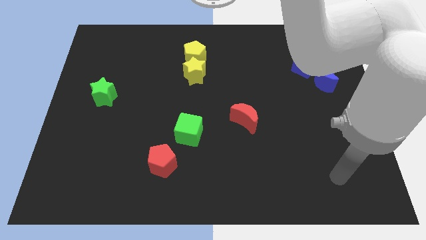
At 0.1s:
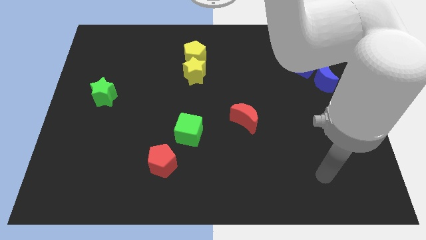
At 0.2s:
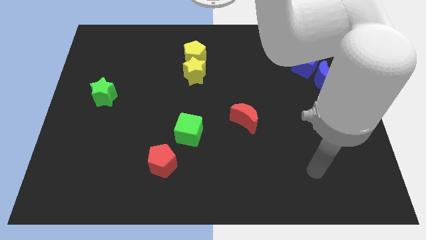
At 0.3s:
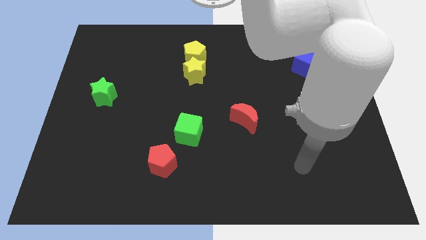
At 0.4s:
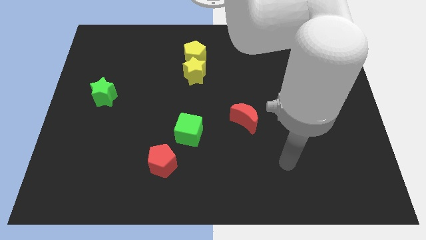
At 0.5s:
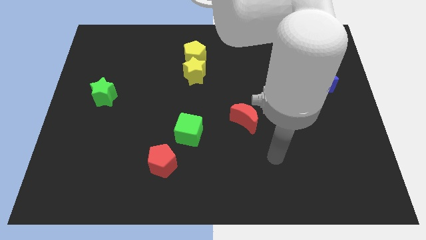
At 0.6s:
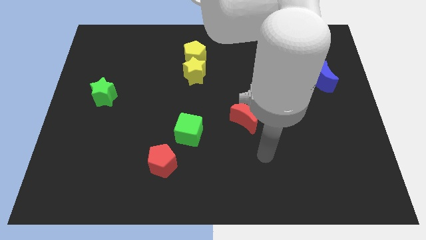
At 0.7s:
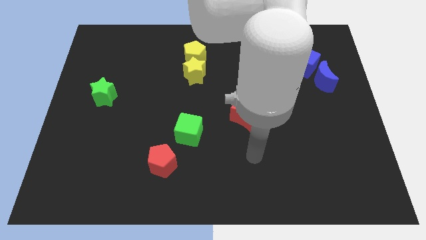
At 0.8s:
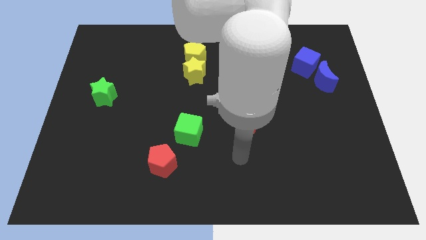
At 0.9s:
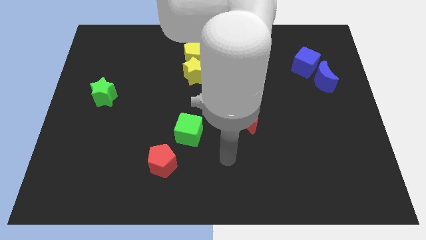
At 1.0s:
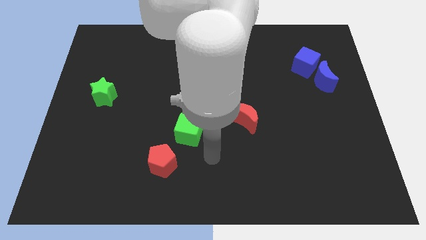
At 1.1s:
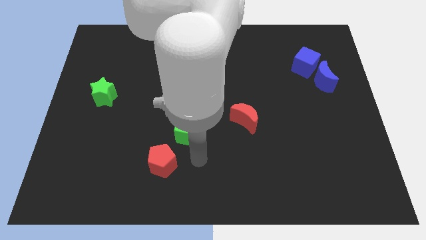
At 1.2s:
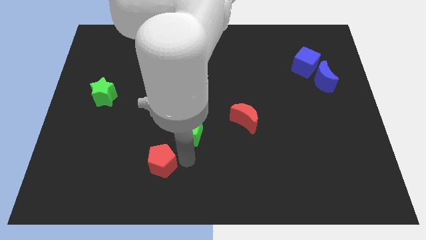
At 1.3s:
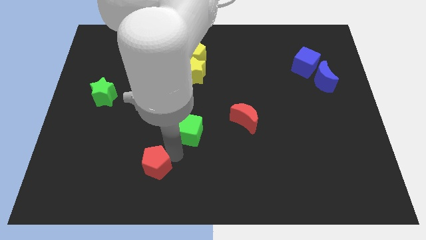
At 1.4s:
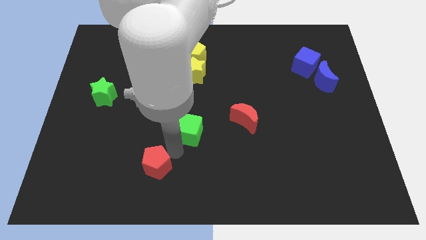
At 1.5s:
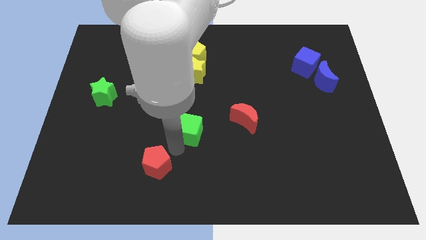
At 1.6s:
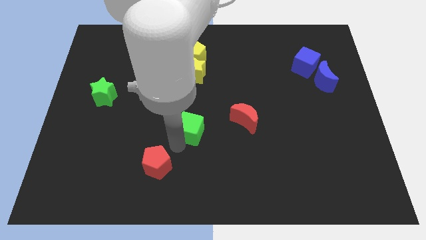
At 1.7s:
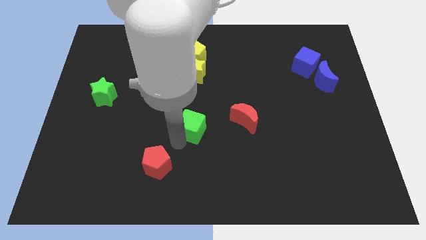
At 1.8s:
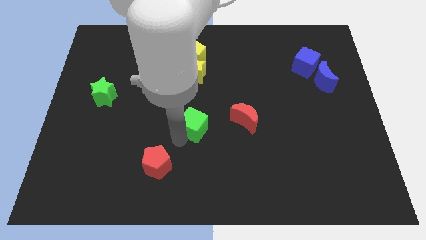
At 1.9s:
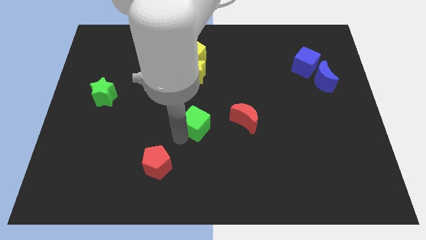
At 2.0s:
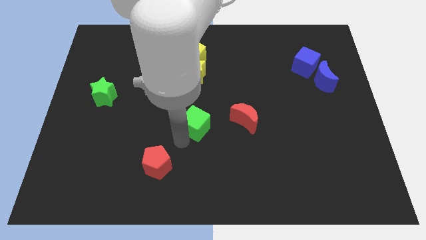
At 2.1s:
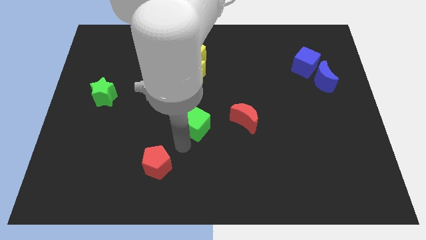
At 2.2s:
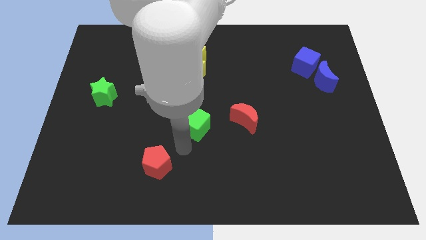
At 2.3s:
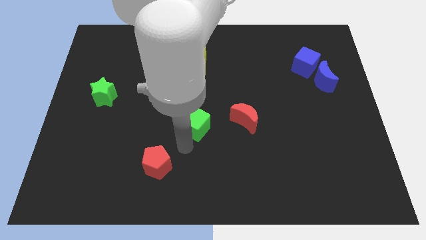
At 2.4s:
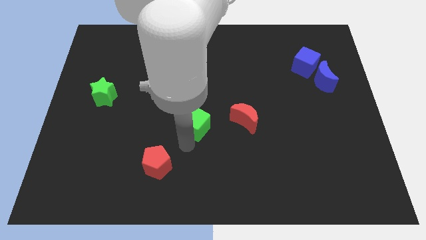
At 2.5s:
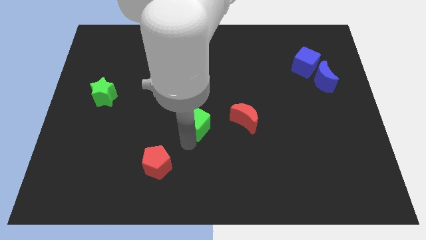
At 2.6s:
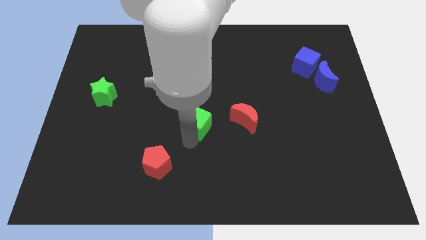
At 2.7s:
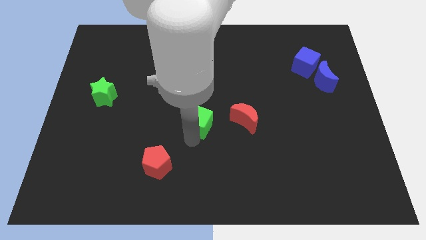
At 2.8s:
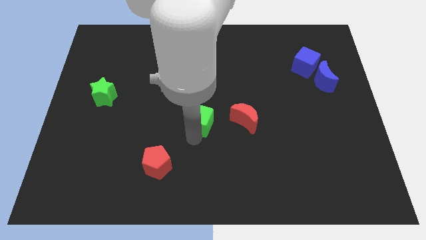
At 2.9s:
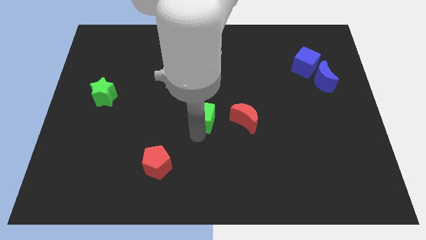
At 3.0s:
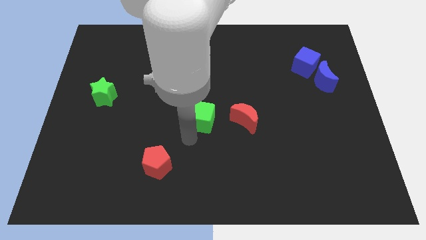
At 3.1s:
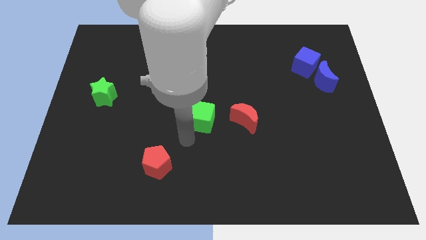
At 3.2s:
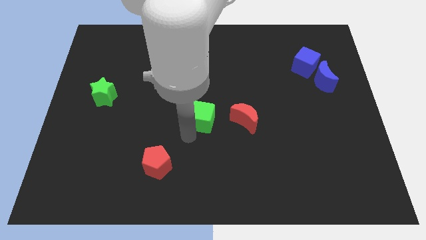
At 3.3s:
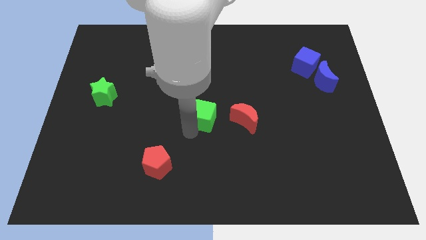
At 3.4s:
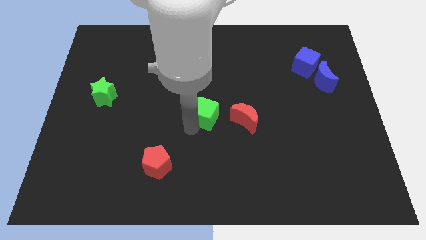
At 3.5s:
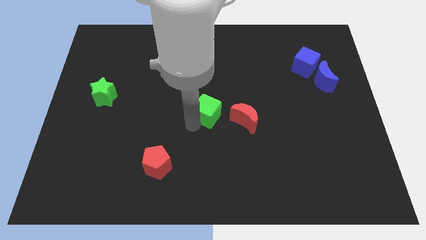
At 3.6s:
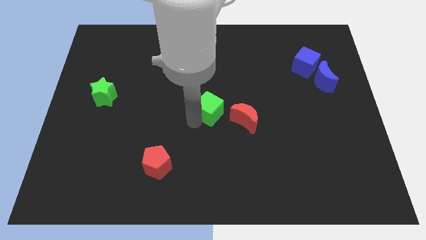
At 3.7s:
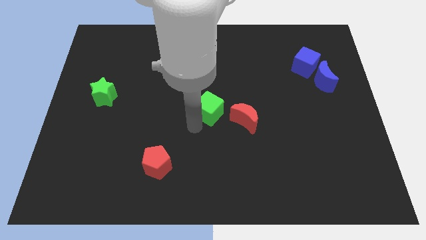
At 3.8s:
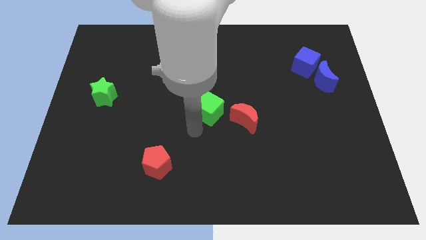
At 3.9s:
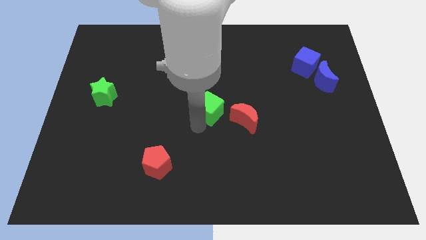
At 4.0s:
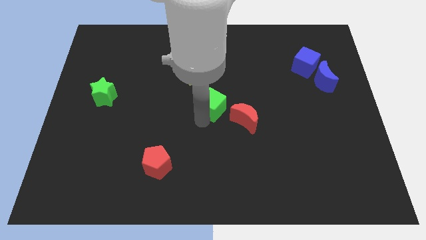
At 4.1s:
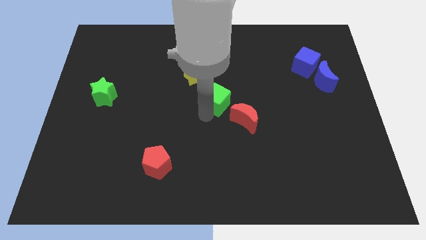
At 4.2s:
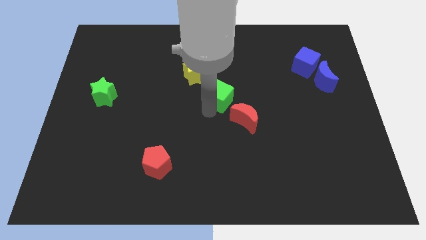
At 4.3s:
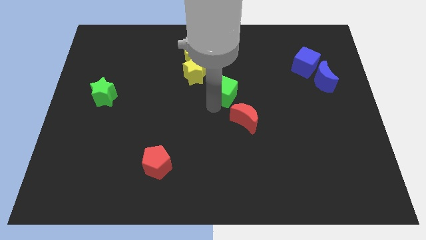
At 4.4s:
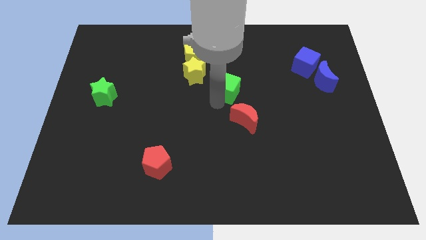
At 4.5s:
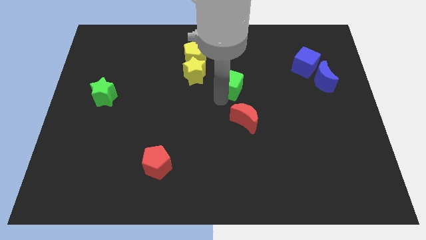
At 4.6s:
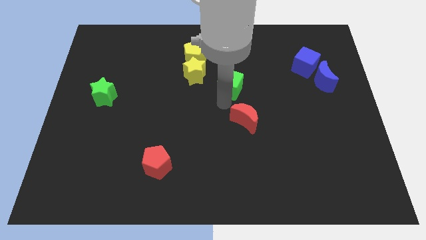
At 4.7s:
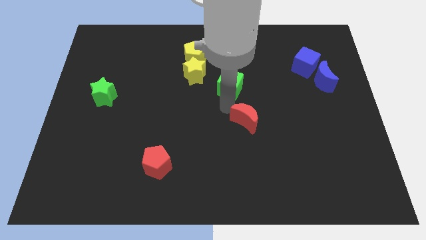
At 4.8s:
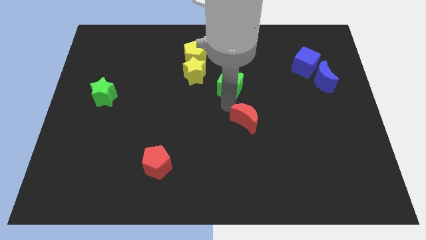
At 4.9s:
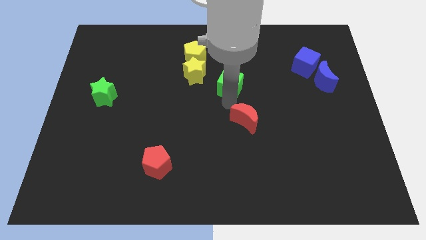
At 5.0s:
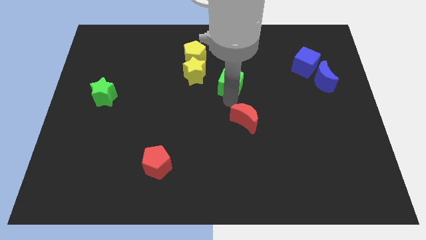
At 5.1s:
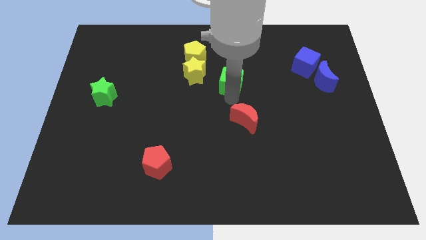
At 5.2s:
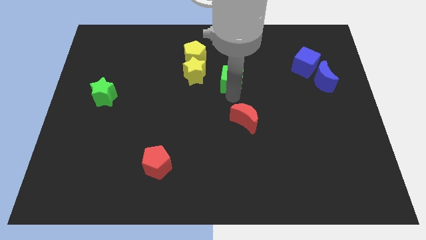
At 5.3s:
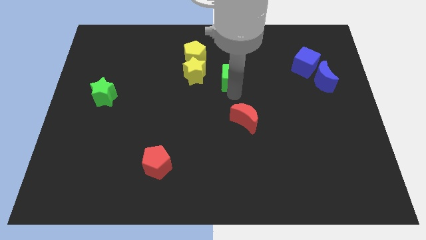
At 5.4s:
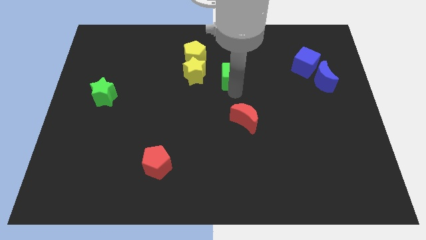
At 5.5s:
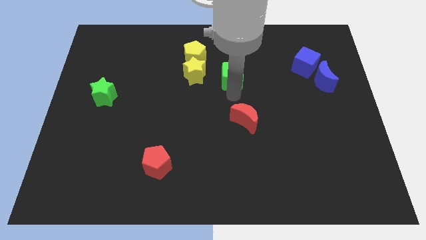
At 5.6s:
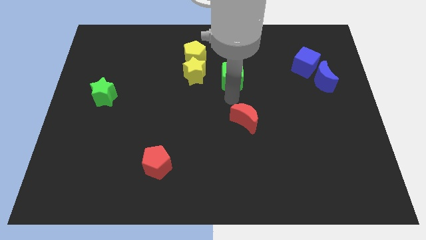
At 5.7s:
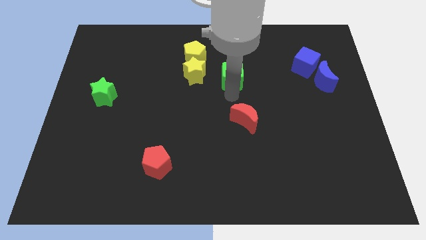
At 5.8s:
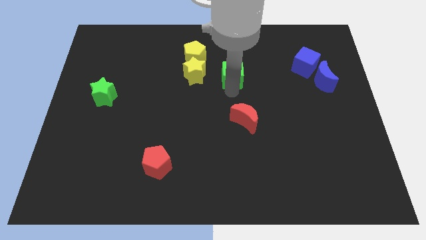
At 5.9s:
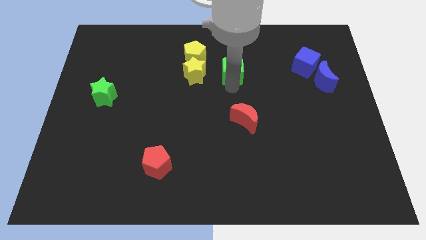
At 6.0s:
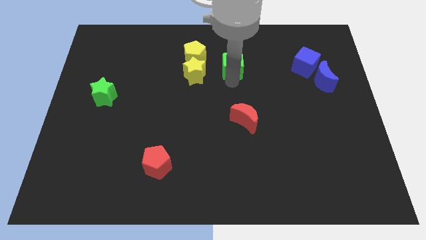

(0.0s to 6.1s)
move the green cube just right of the yellow pentagon

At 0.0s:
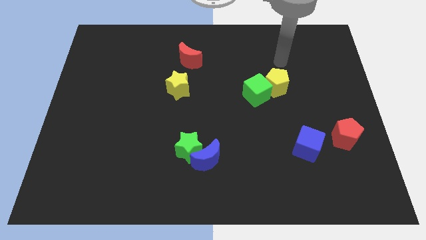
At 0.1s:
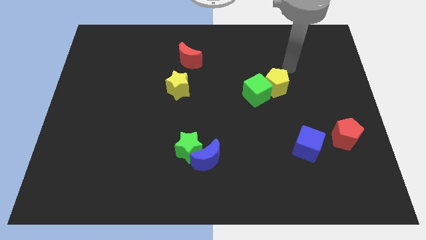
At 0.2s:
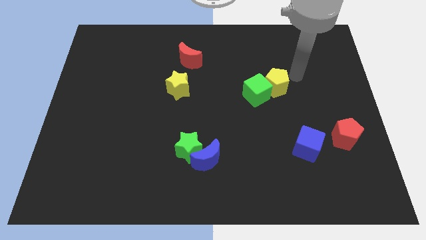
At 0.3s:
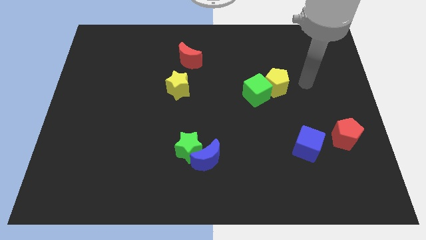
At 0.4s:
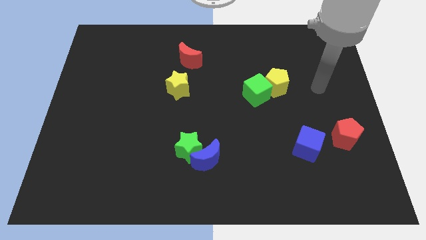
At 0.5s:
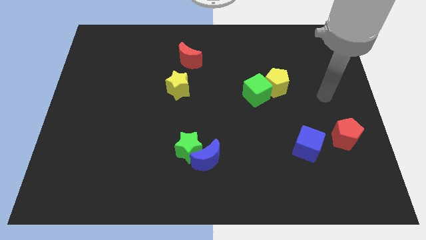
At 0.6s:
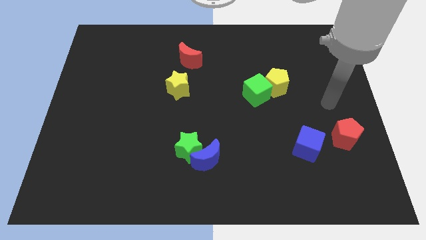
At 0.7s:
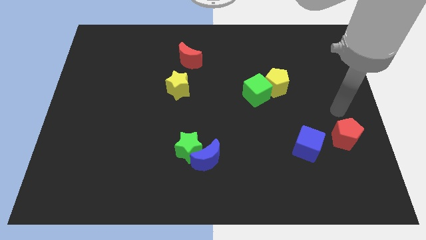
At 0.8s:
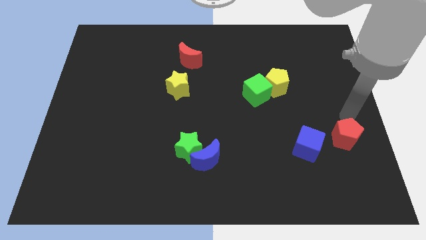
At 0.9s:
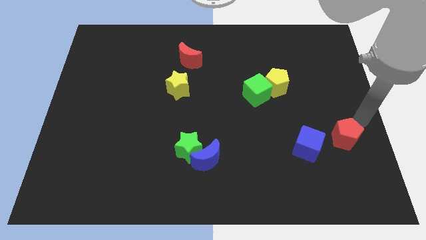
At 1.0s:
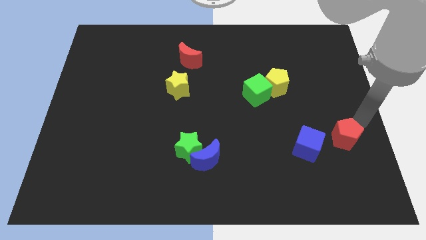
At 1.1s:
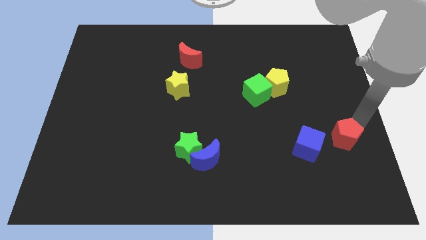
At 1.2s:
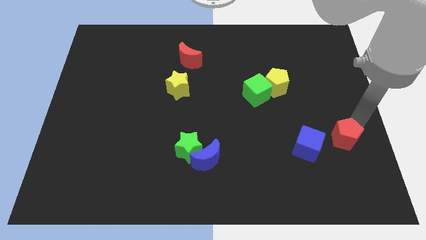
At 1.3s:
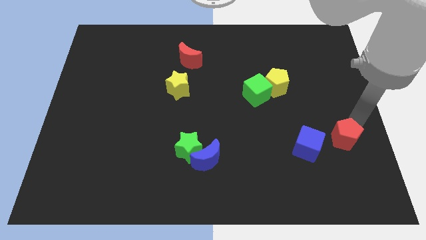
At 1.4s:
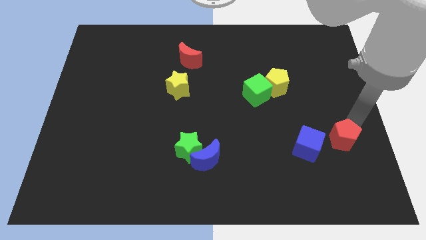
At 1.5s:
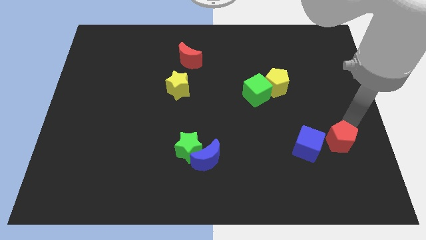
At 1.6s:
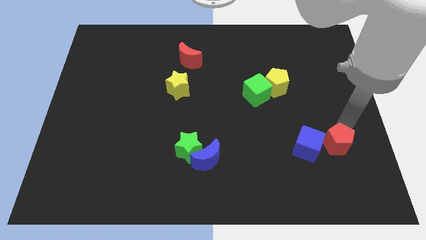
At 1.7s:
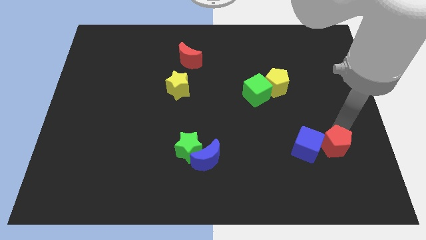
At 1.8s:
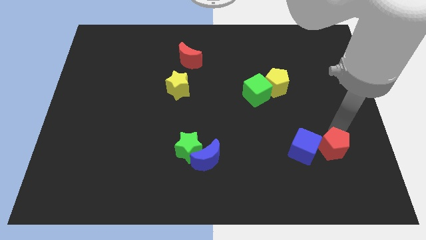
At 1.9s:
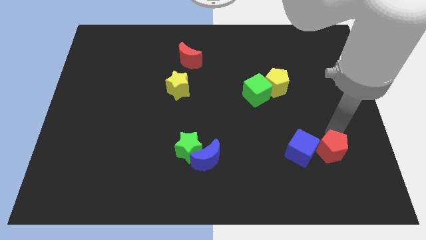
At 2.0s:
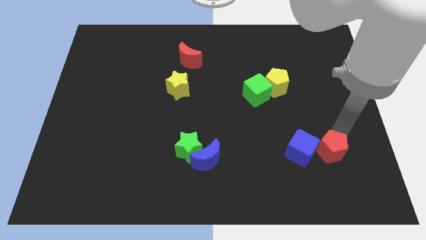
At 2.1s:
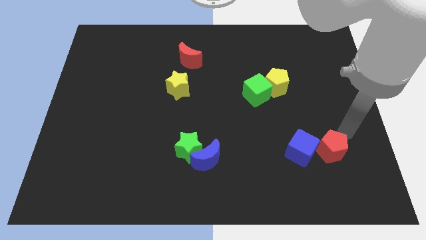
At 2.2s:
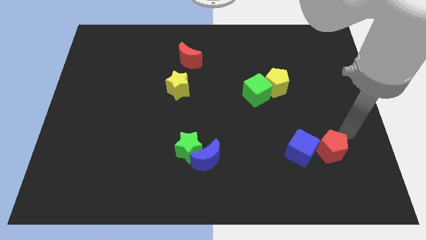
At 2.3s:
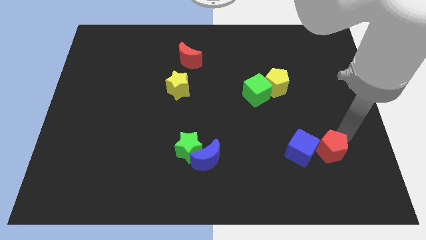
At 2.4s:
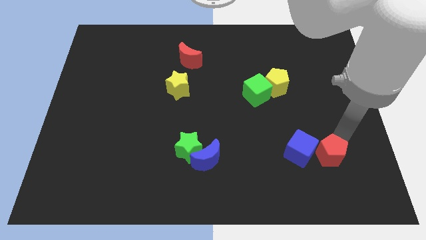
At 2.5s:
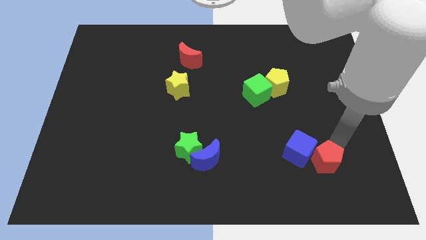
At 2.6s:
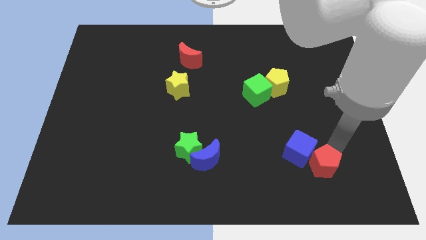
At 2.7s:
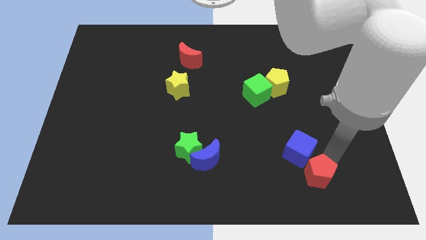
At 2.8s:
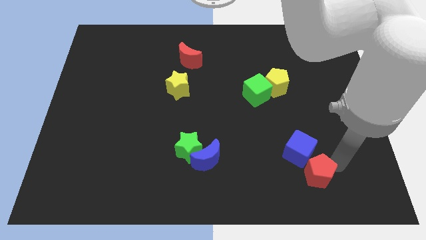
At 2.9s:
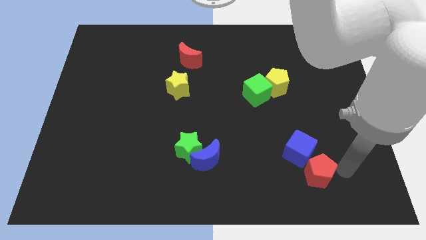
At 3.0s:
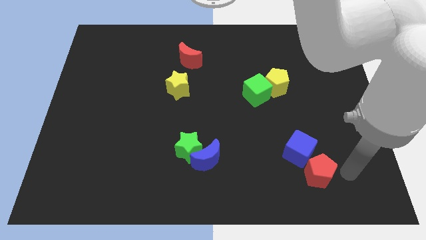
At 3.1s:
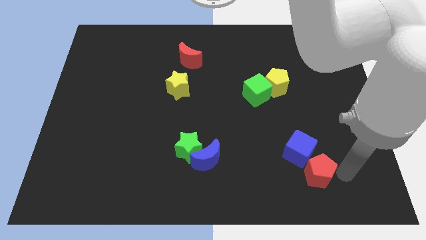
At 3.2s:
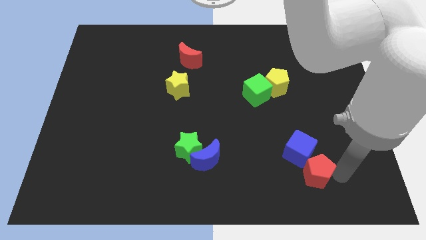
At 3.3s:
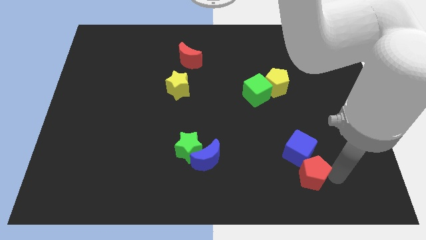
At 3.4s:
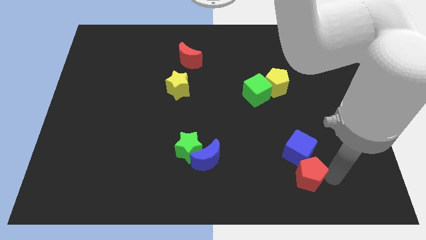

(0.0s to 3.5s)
slide the red pentagon to the bottom left of the blue cube
